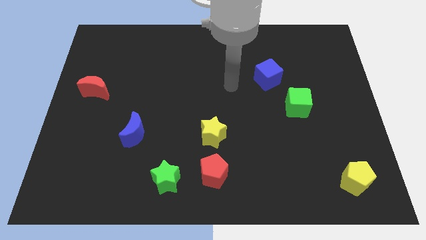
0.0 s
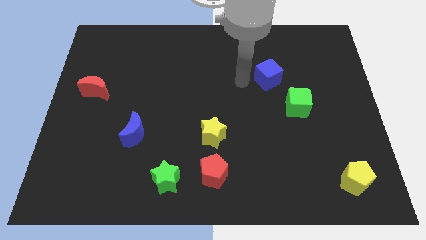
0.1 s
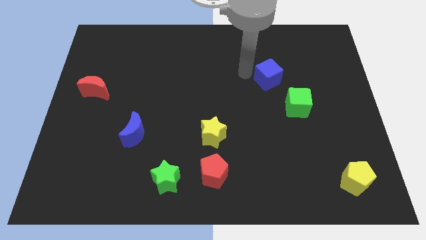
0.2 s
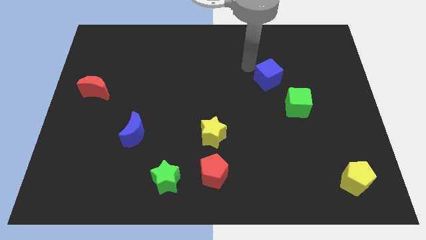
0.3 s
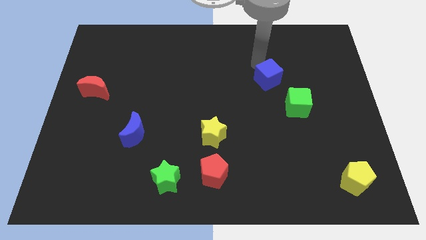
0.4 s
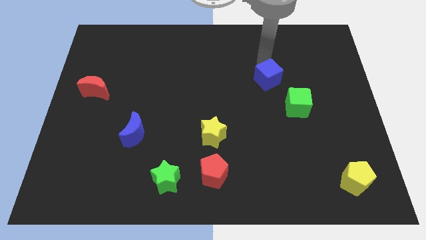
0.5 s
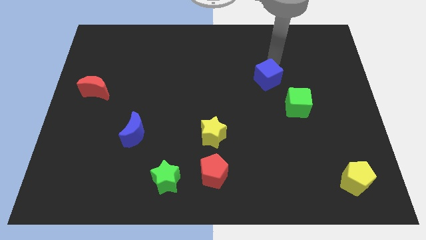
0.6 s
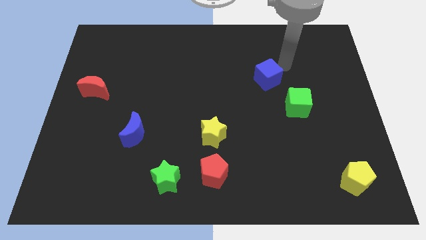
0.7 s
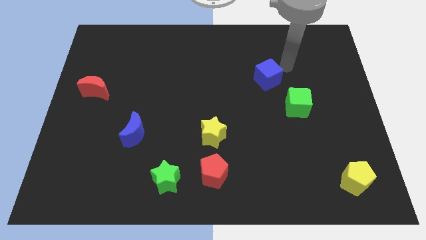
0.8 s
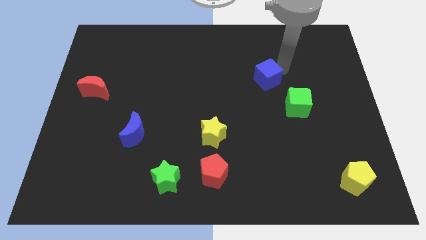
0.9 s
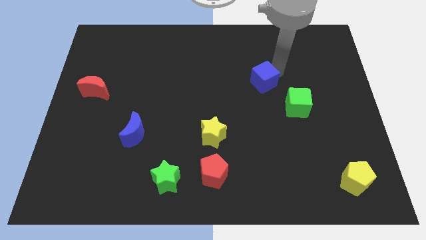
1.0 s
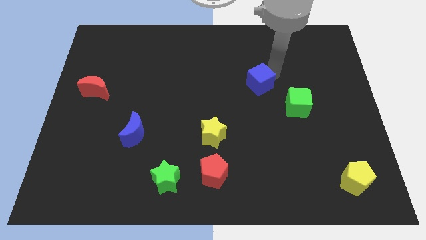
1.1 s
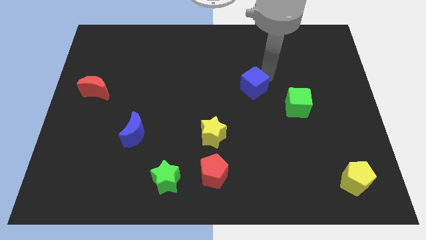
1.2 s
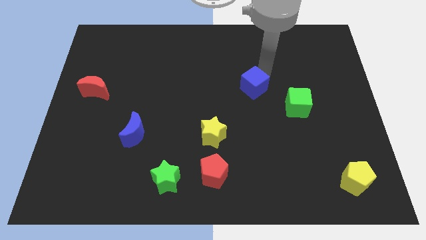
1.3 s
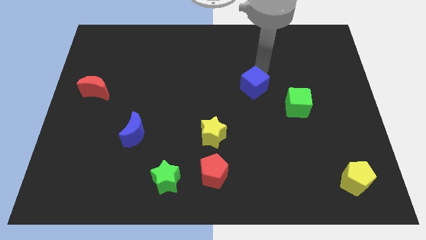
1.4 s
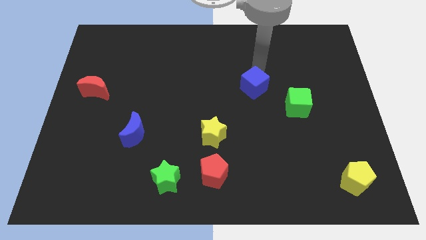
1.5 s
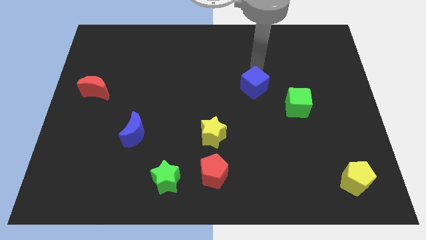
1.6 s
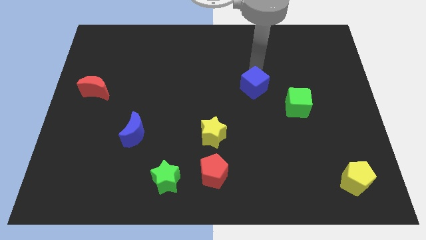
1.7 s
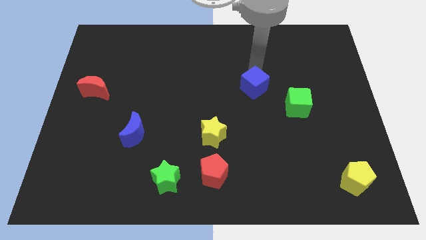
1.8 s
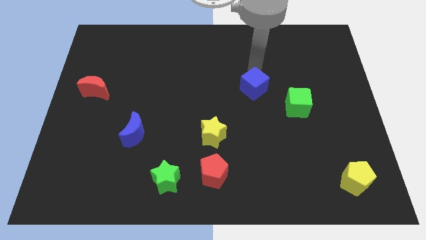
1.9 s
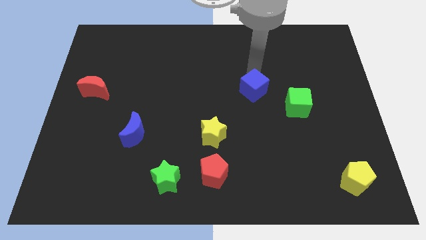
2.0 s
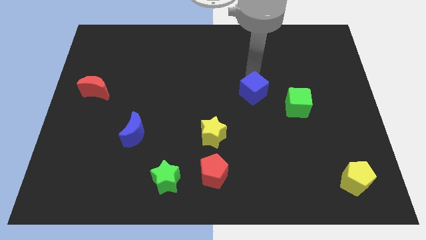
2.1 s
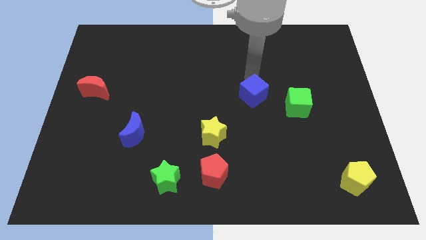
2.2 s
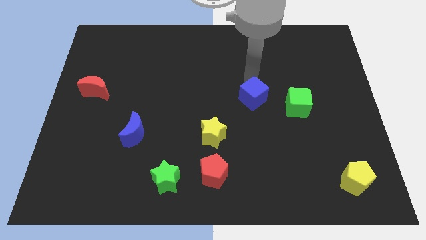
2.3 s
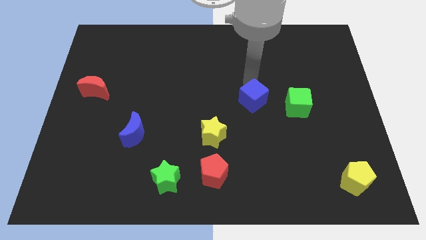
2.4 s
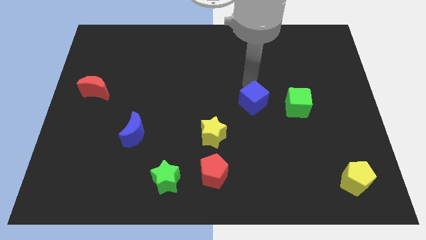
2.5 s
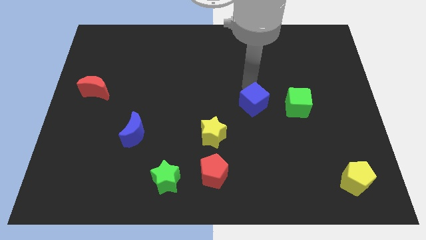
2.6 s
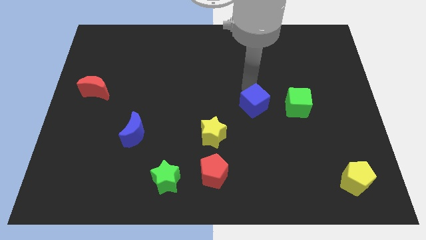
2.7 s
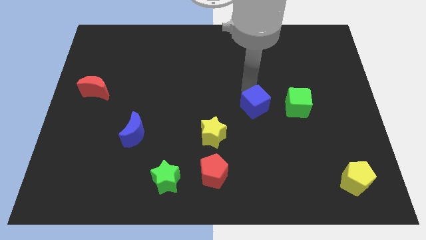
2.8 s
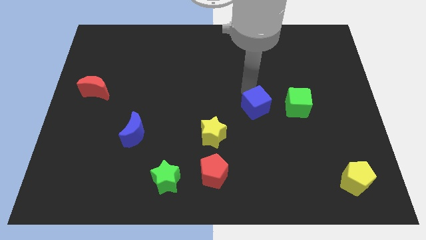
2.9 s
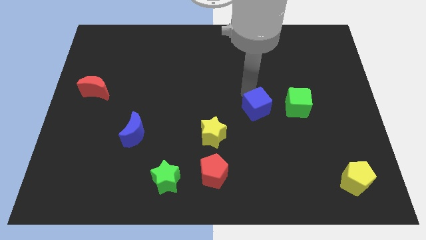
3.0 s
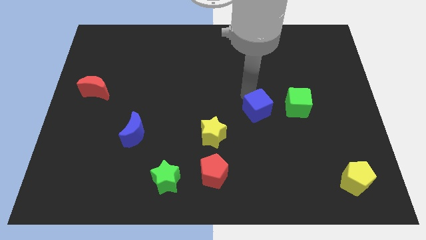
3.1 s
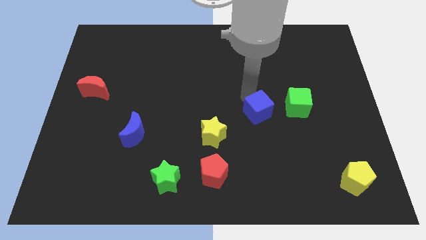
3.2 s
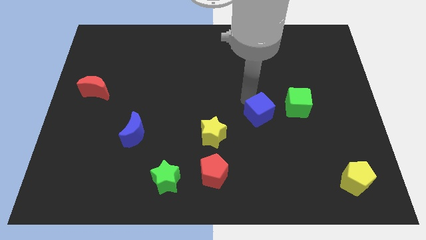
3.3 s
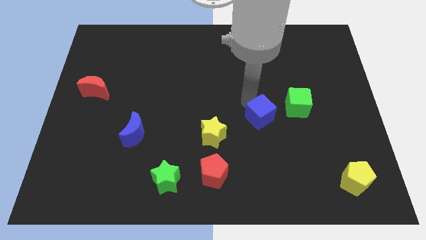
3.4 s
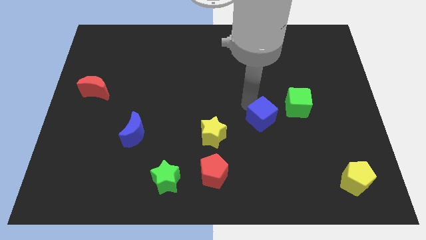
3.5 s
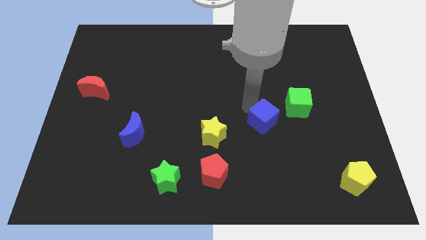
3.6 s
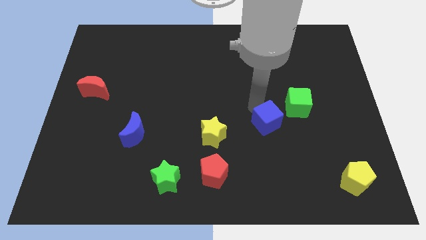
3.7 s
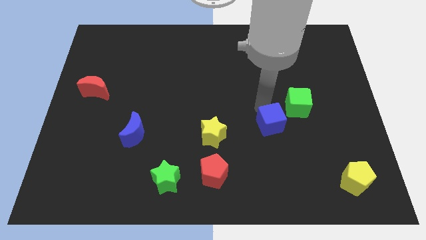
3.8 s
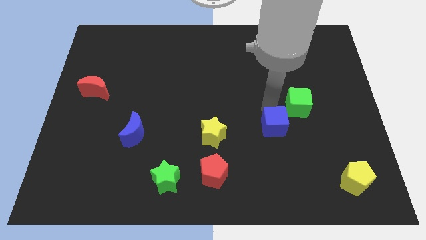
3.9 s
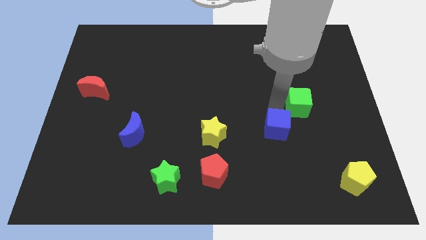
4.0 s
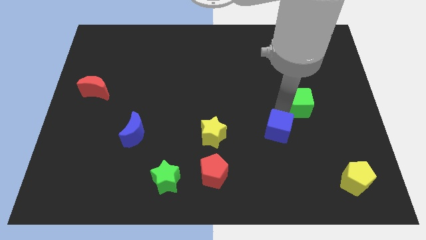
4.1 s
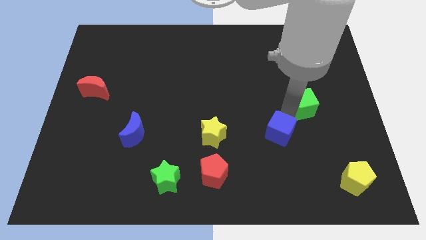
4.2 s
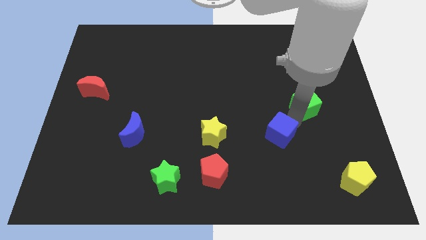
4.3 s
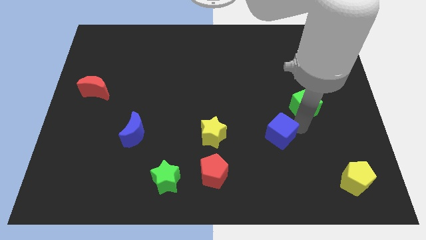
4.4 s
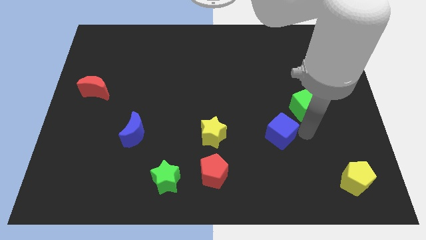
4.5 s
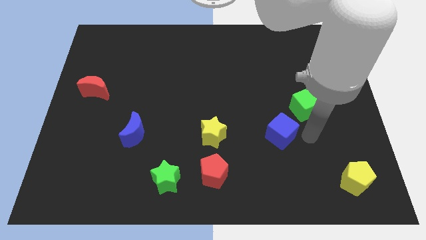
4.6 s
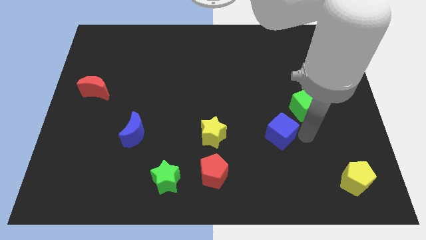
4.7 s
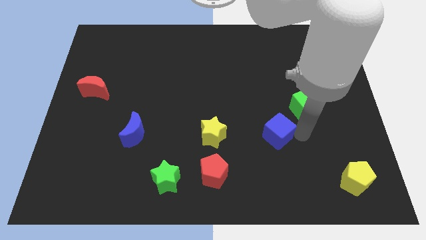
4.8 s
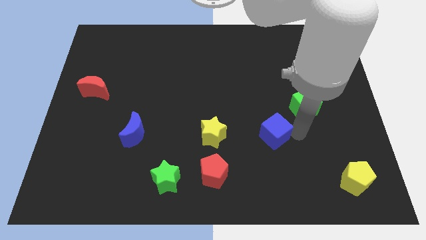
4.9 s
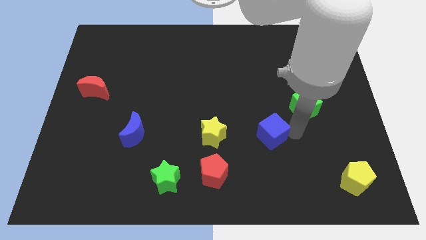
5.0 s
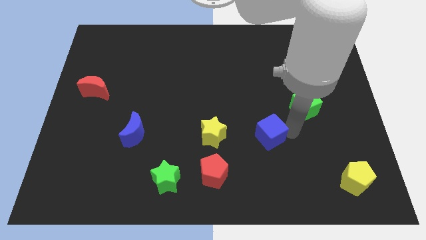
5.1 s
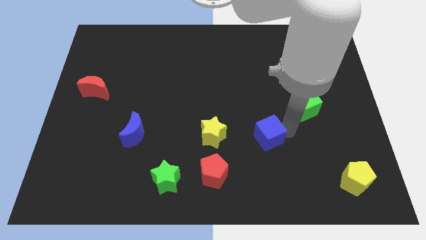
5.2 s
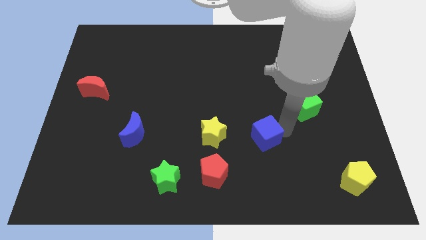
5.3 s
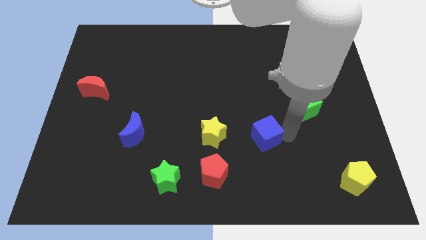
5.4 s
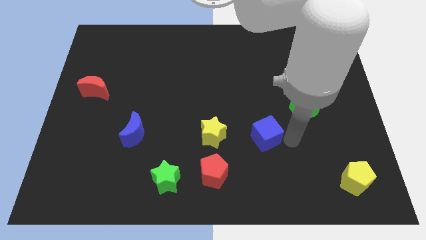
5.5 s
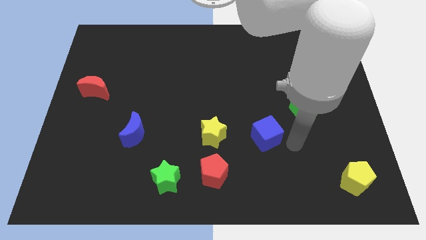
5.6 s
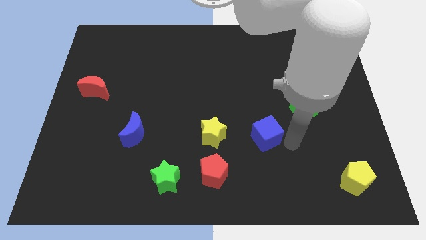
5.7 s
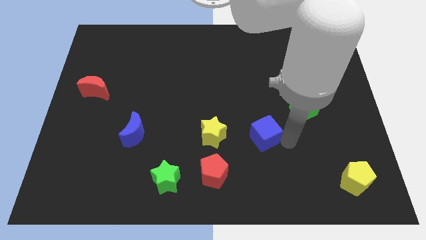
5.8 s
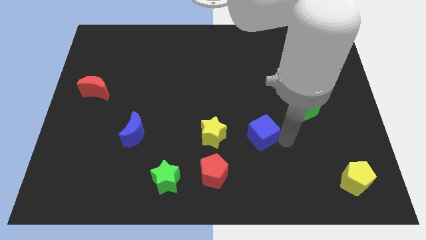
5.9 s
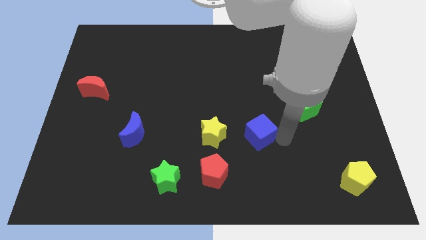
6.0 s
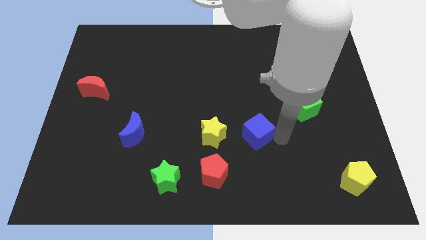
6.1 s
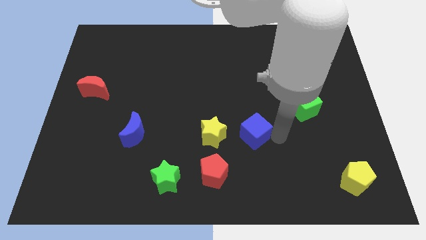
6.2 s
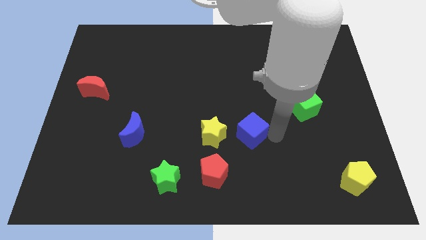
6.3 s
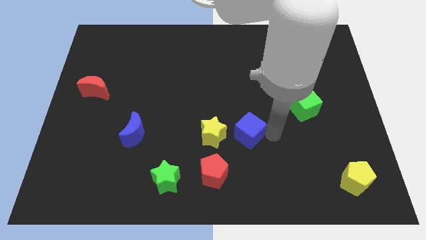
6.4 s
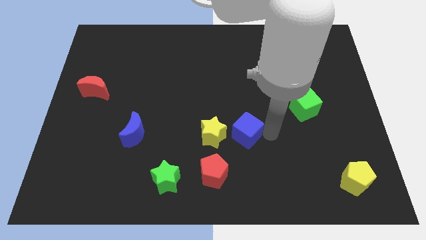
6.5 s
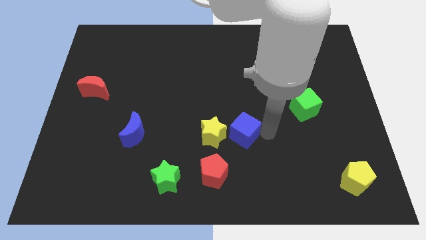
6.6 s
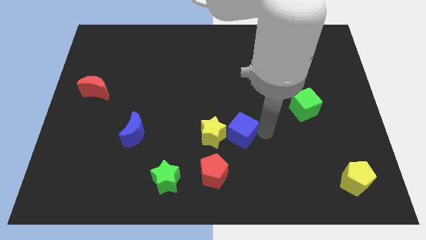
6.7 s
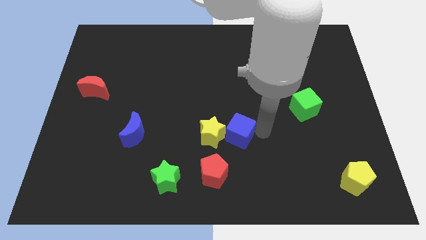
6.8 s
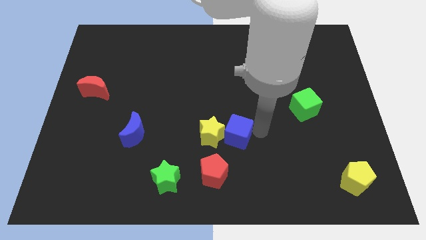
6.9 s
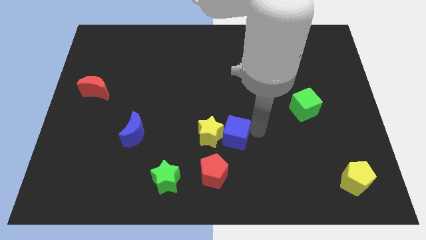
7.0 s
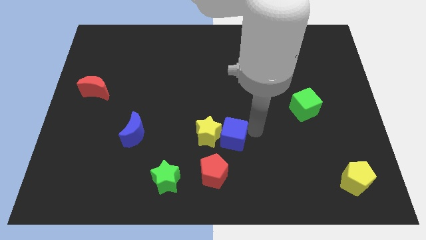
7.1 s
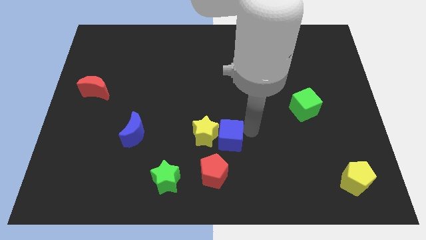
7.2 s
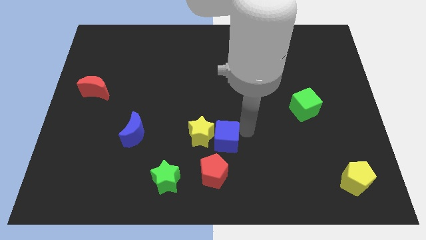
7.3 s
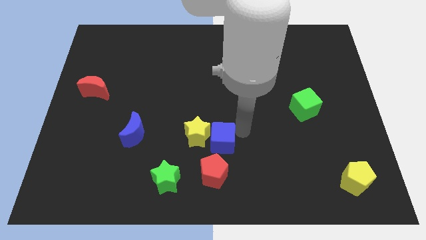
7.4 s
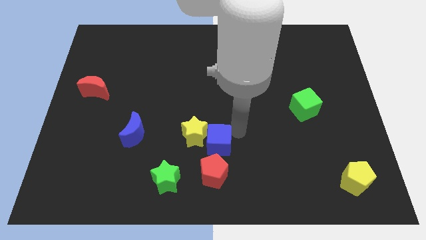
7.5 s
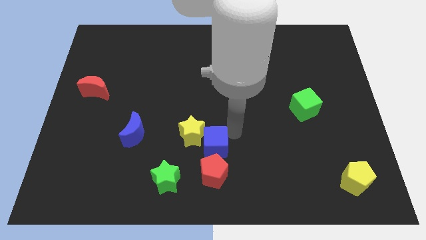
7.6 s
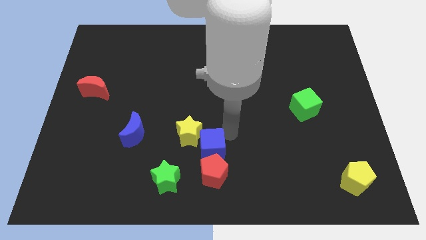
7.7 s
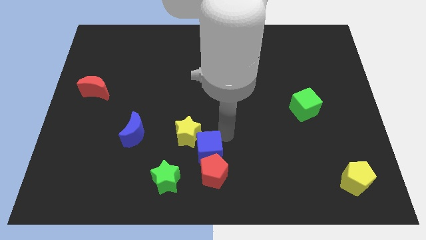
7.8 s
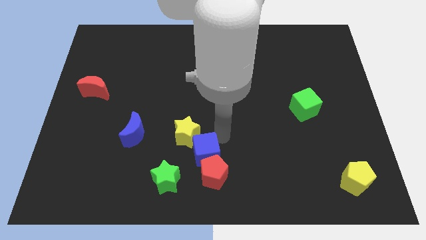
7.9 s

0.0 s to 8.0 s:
slide the blue cube to the bottom
